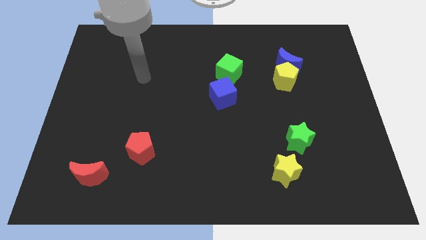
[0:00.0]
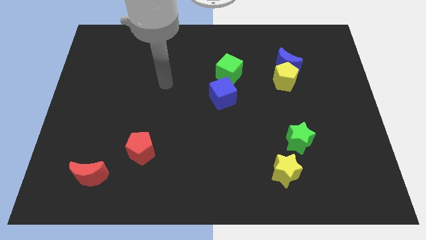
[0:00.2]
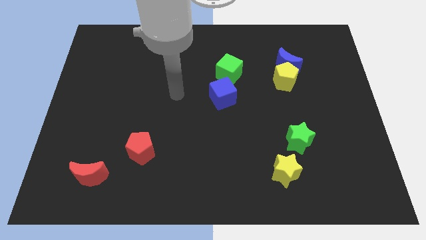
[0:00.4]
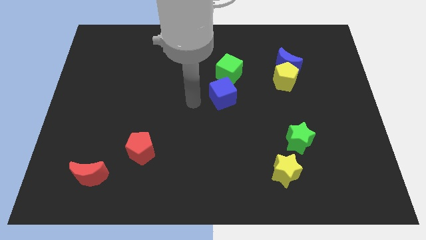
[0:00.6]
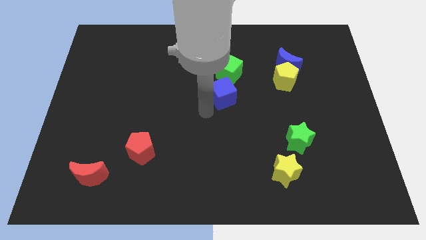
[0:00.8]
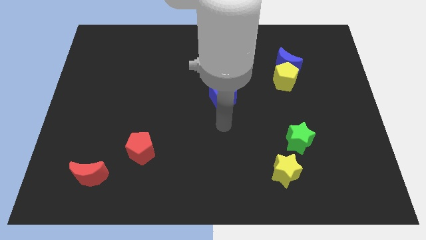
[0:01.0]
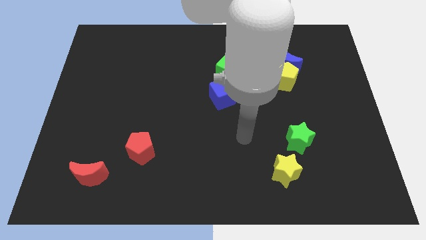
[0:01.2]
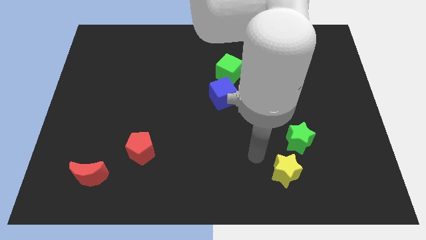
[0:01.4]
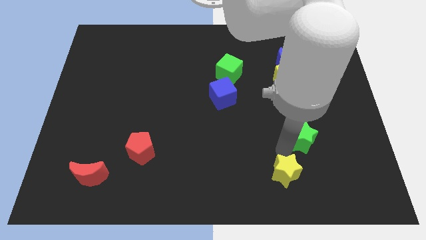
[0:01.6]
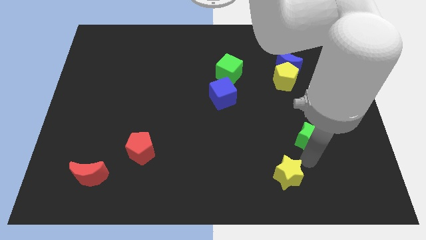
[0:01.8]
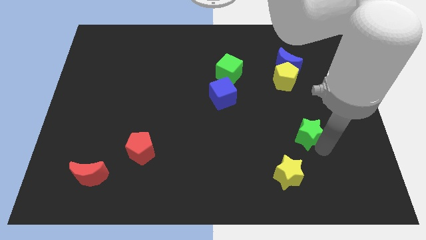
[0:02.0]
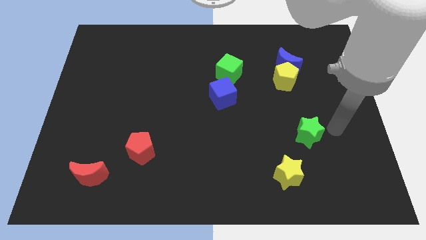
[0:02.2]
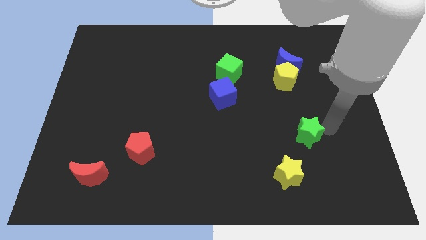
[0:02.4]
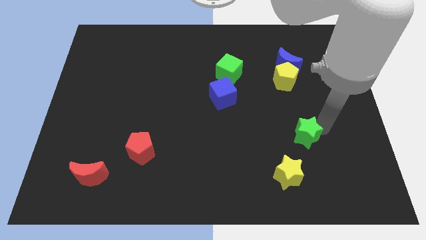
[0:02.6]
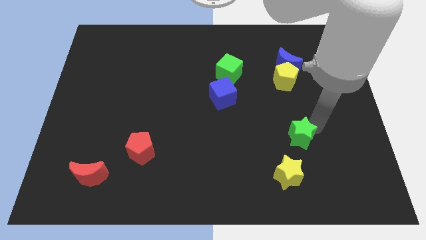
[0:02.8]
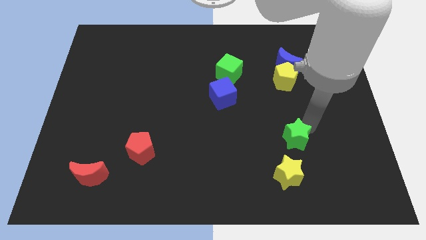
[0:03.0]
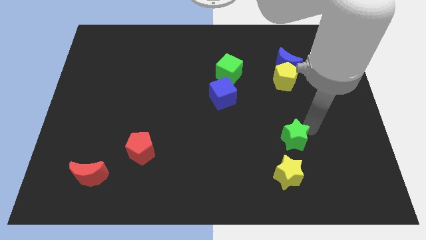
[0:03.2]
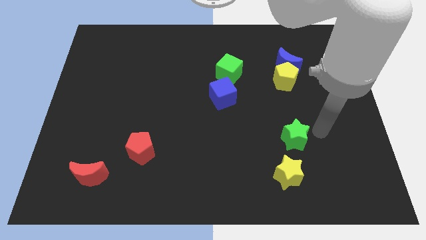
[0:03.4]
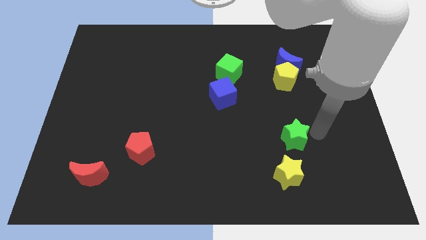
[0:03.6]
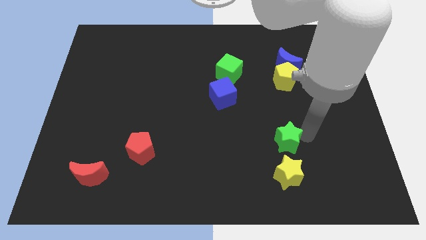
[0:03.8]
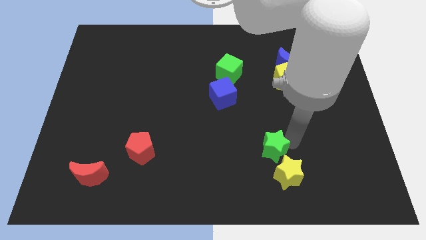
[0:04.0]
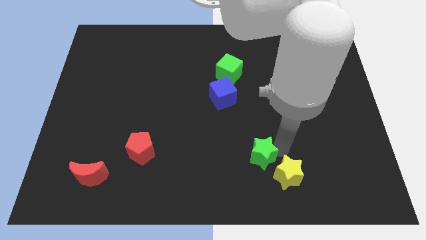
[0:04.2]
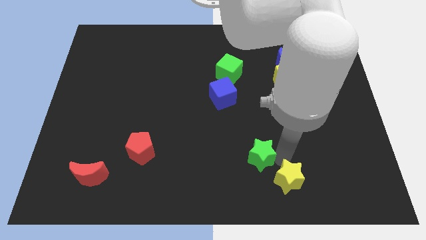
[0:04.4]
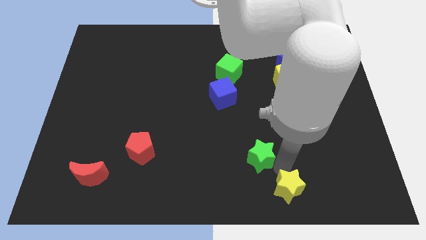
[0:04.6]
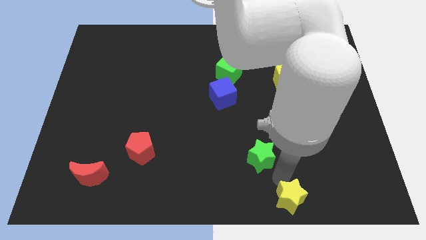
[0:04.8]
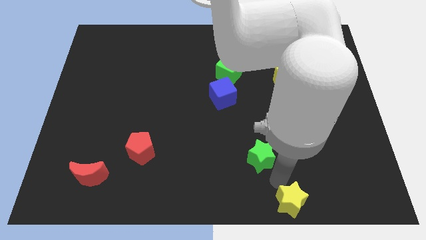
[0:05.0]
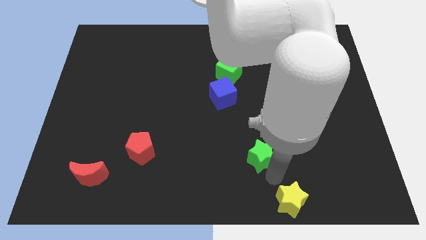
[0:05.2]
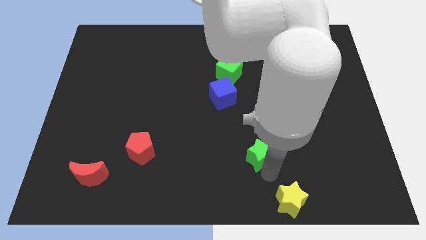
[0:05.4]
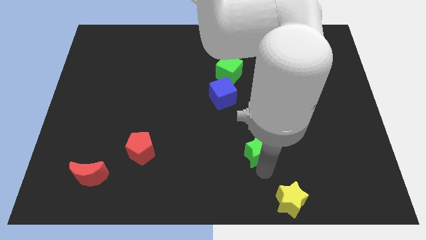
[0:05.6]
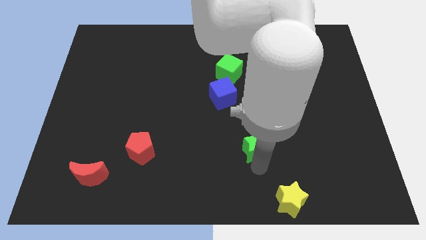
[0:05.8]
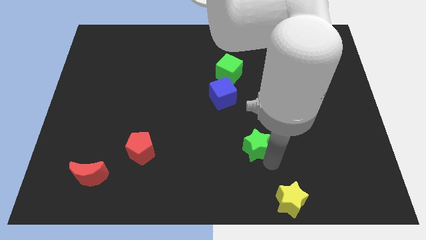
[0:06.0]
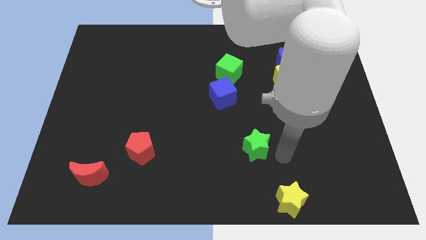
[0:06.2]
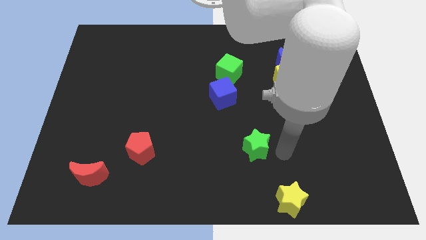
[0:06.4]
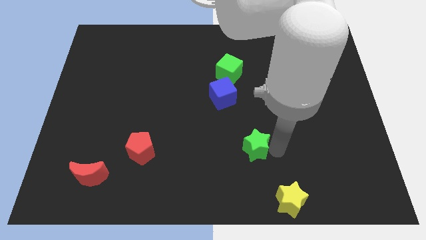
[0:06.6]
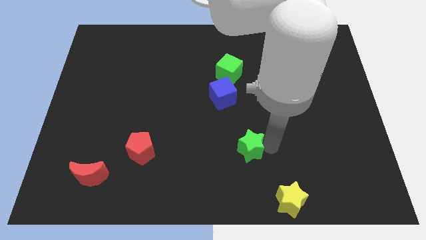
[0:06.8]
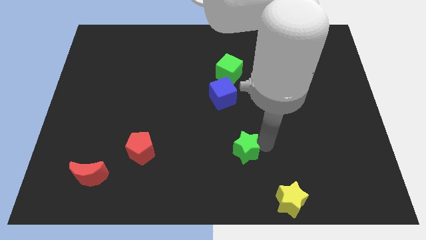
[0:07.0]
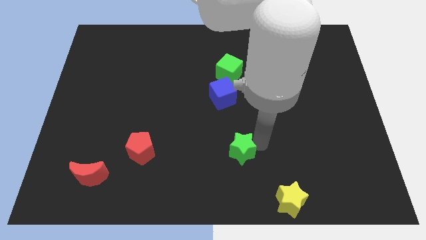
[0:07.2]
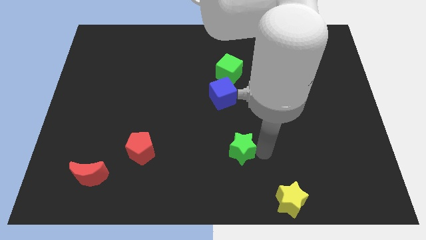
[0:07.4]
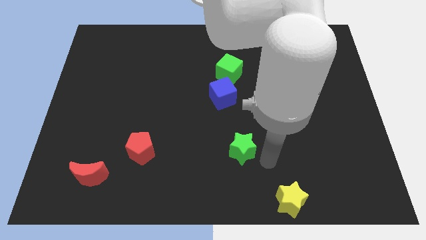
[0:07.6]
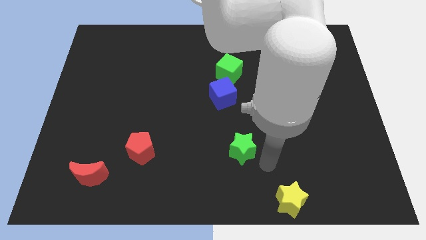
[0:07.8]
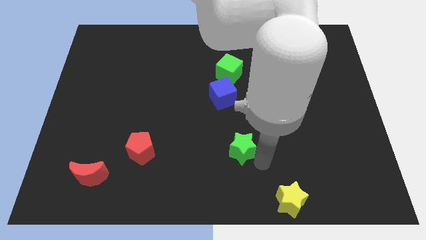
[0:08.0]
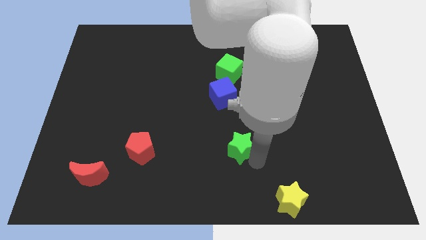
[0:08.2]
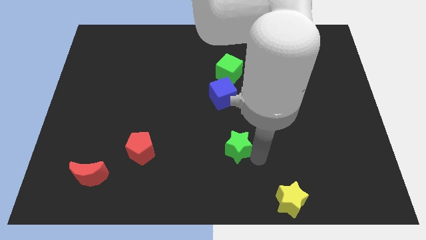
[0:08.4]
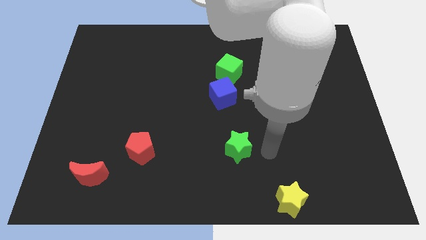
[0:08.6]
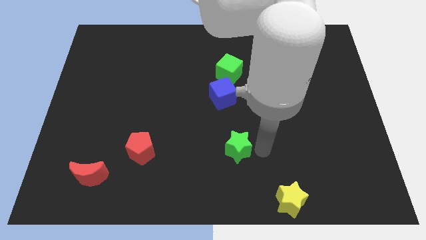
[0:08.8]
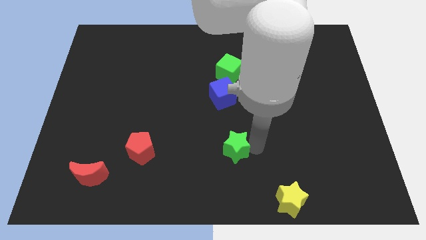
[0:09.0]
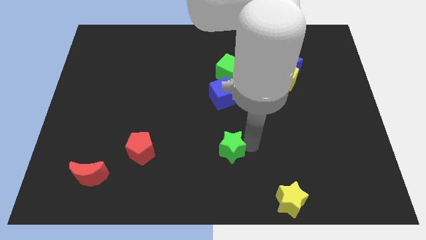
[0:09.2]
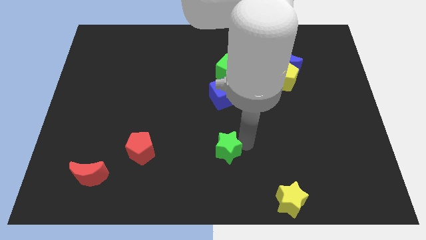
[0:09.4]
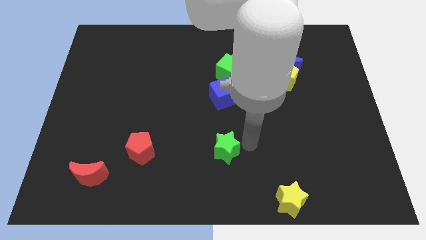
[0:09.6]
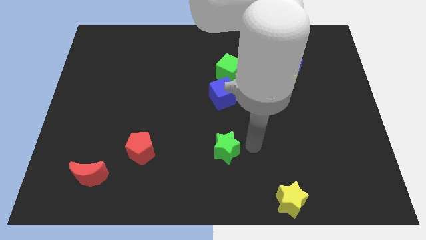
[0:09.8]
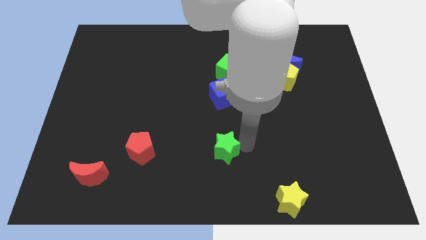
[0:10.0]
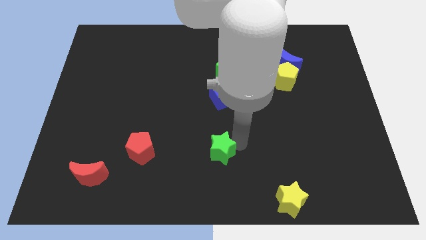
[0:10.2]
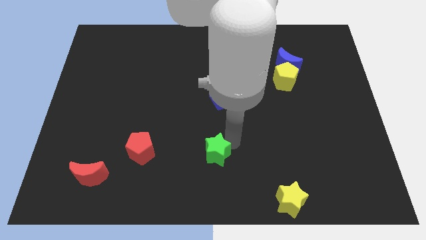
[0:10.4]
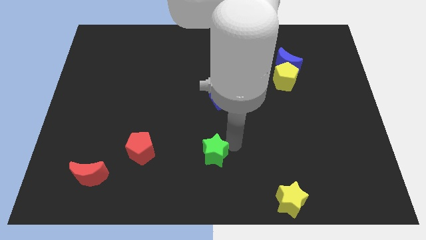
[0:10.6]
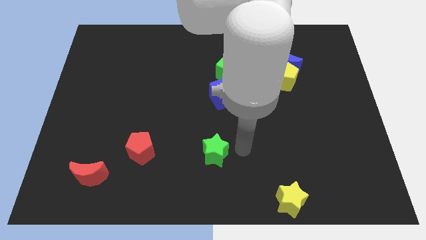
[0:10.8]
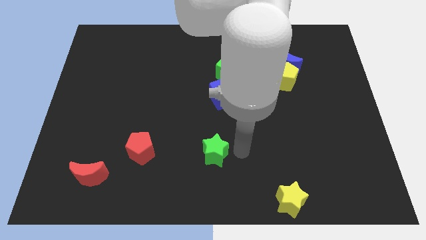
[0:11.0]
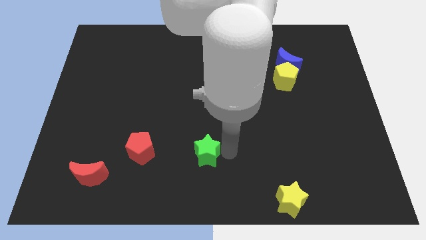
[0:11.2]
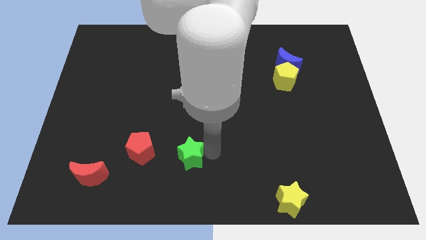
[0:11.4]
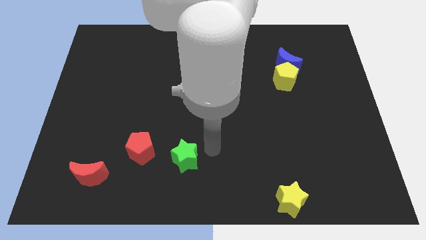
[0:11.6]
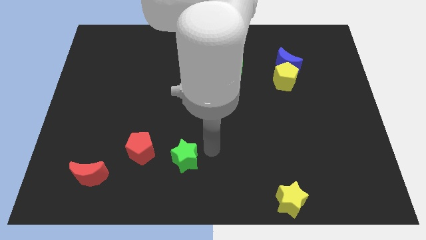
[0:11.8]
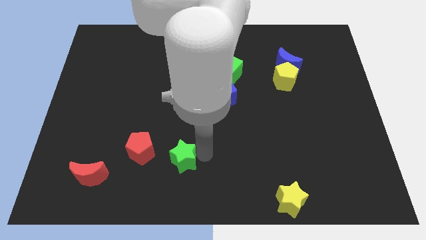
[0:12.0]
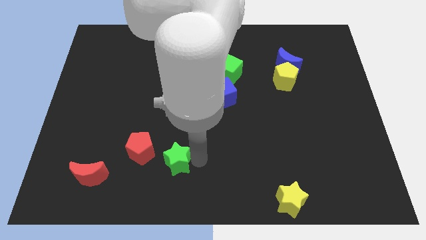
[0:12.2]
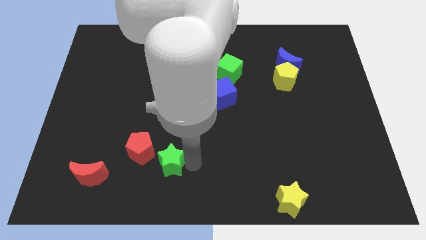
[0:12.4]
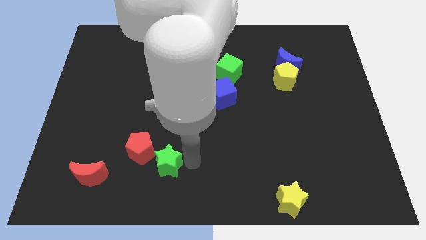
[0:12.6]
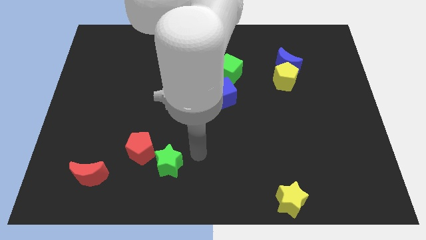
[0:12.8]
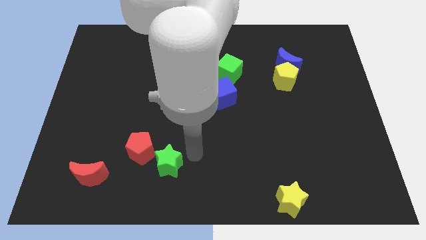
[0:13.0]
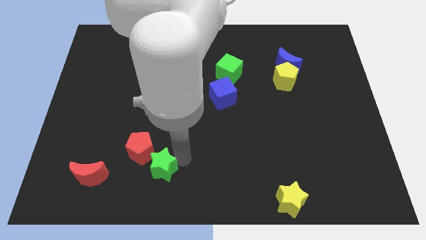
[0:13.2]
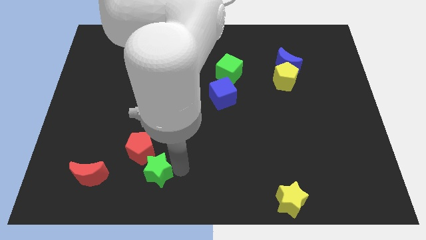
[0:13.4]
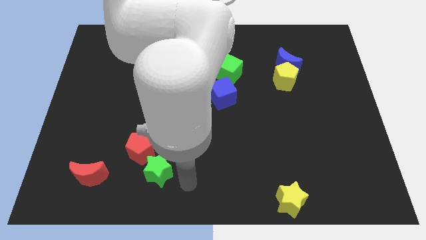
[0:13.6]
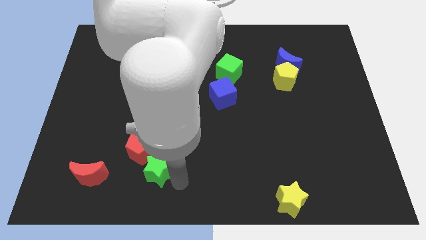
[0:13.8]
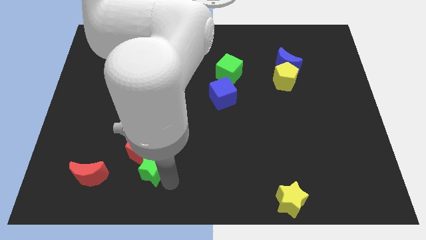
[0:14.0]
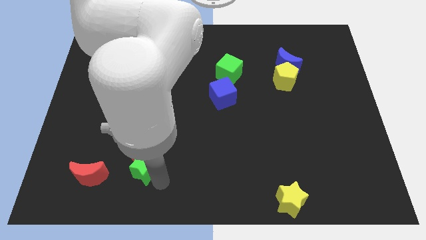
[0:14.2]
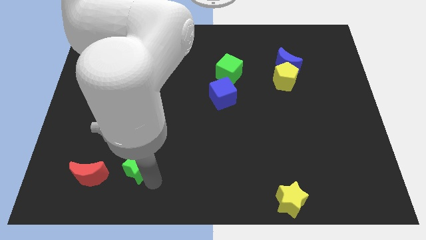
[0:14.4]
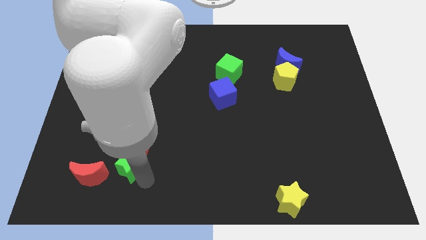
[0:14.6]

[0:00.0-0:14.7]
push the green star diagonally up and to the right of the red moon
